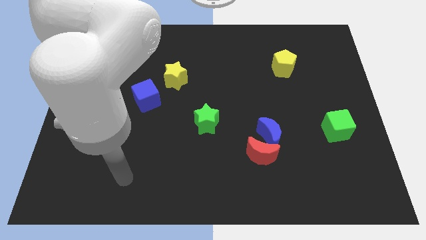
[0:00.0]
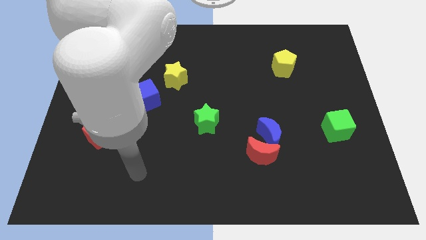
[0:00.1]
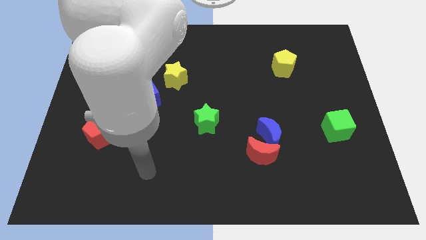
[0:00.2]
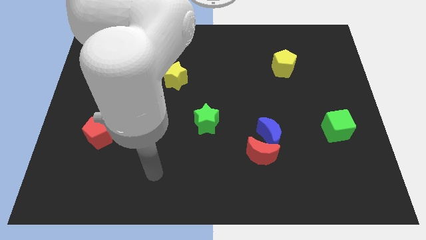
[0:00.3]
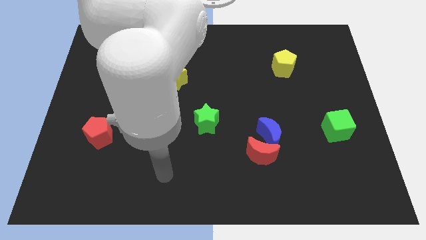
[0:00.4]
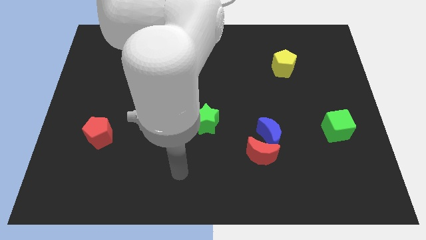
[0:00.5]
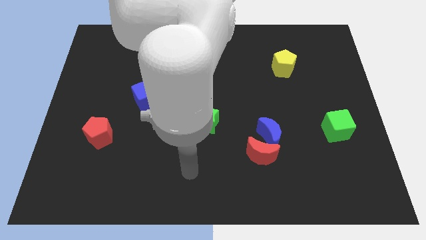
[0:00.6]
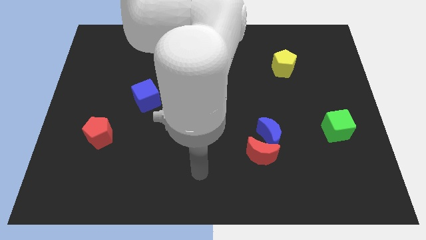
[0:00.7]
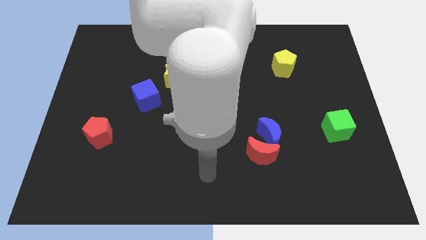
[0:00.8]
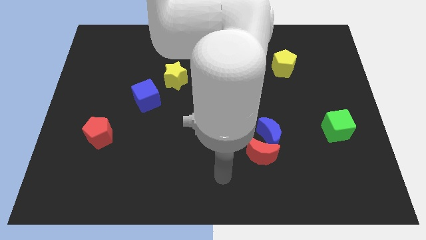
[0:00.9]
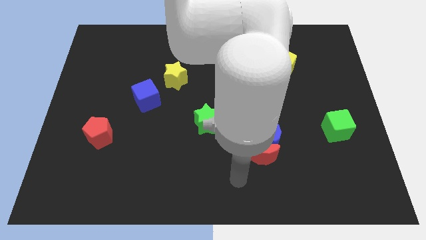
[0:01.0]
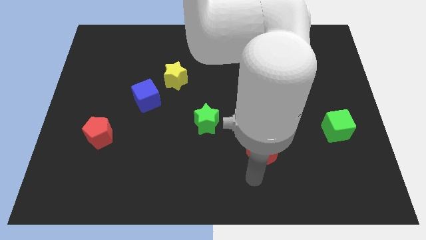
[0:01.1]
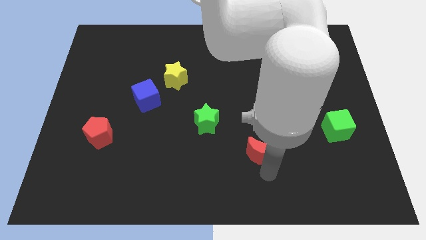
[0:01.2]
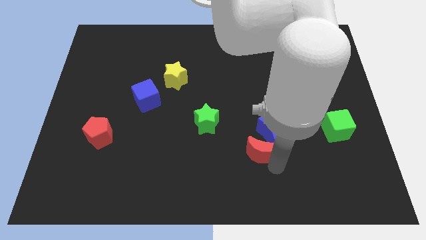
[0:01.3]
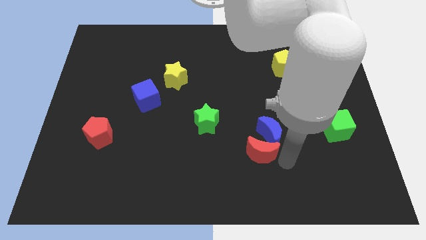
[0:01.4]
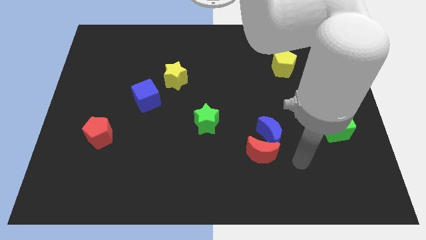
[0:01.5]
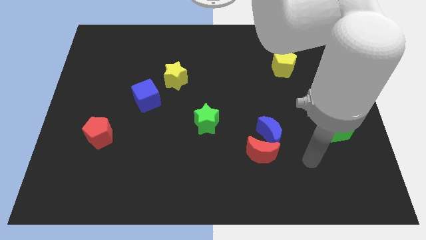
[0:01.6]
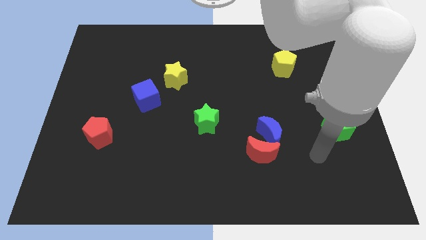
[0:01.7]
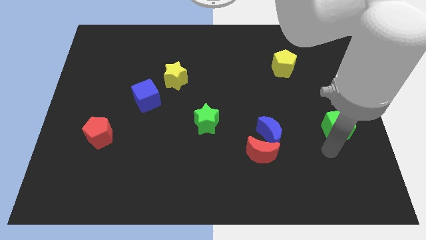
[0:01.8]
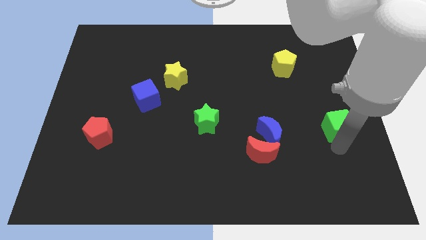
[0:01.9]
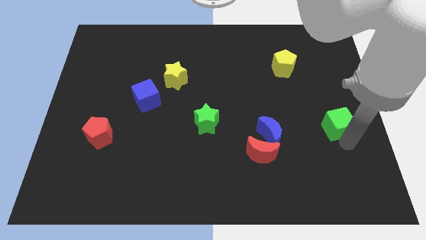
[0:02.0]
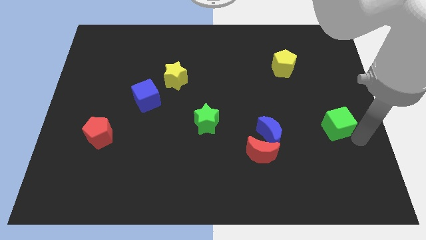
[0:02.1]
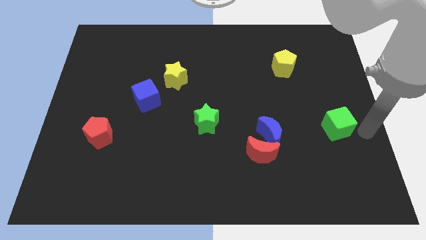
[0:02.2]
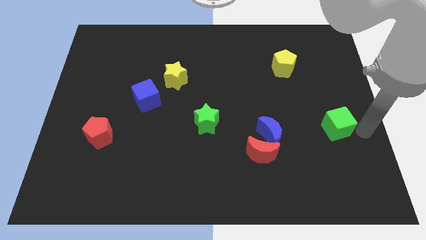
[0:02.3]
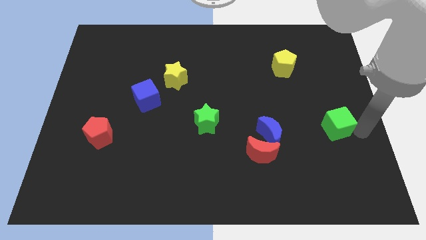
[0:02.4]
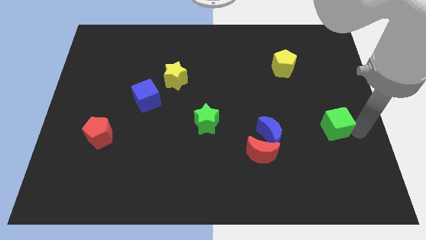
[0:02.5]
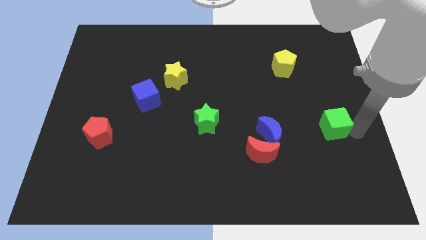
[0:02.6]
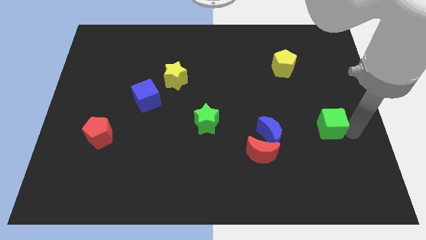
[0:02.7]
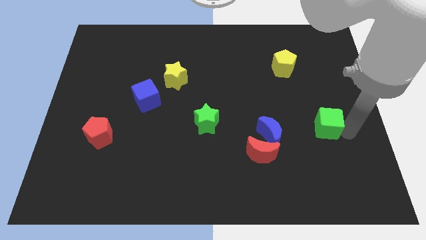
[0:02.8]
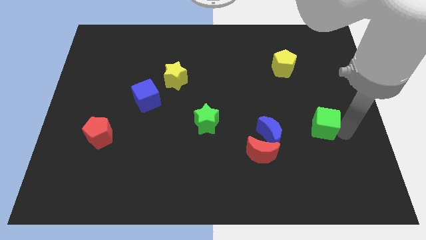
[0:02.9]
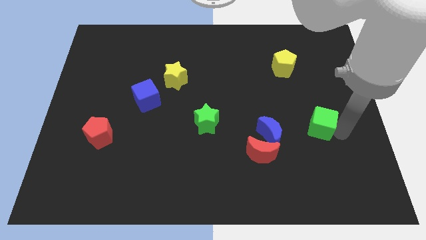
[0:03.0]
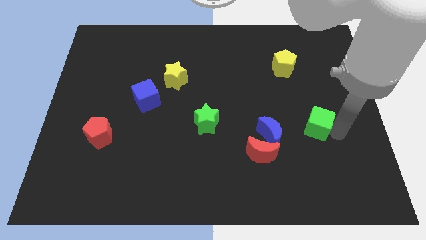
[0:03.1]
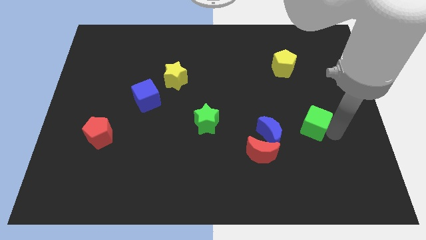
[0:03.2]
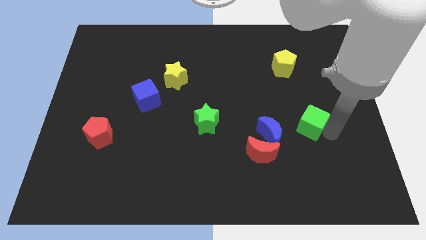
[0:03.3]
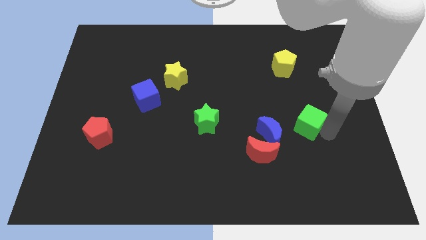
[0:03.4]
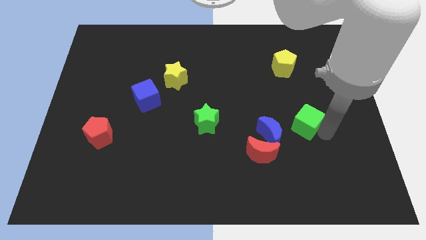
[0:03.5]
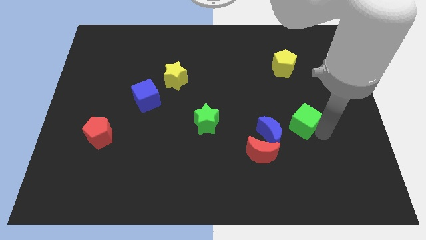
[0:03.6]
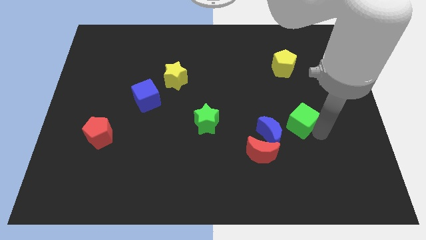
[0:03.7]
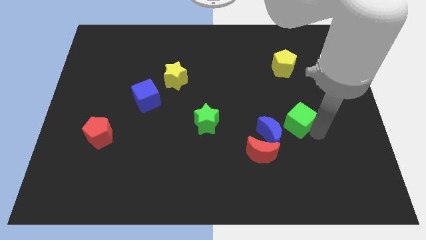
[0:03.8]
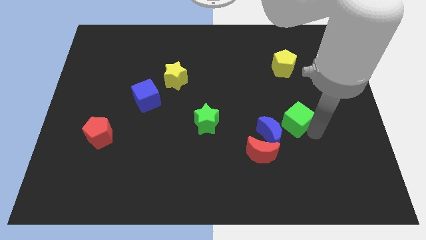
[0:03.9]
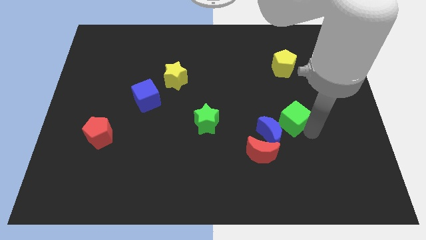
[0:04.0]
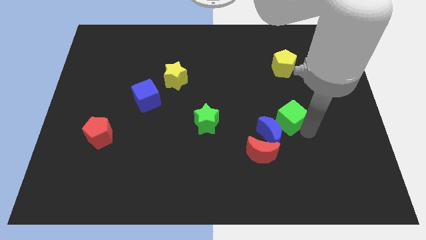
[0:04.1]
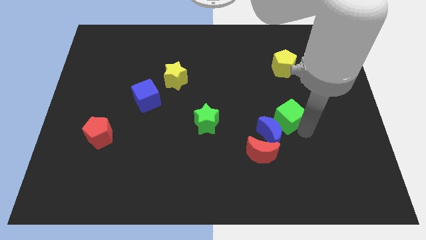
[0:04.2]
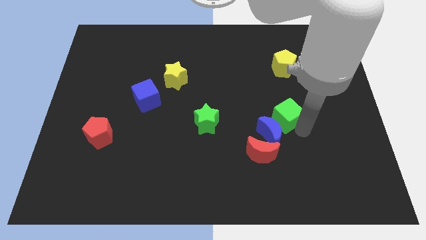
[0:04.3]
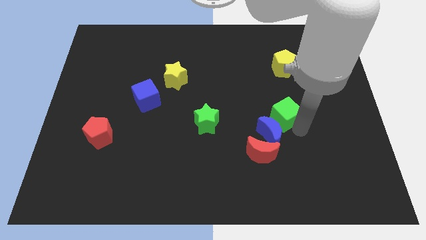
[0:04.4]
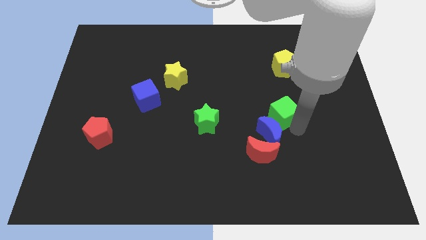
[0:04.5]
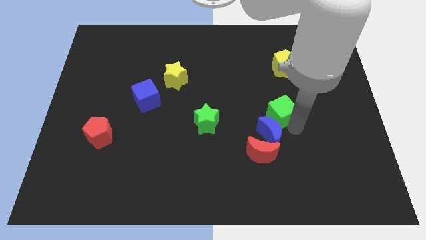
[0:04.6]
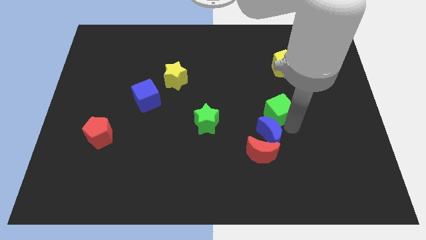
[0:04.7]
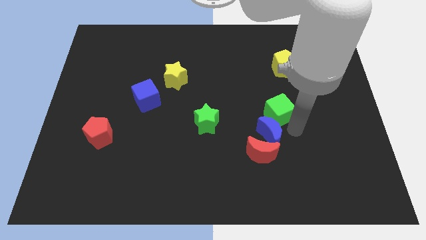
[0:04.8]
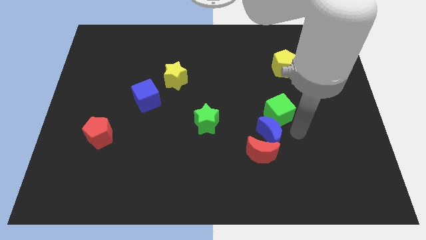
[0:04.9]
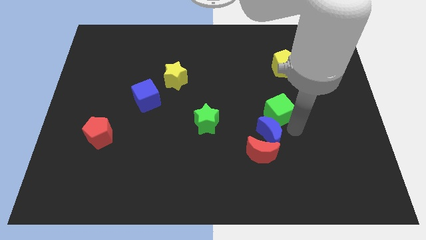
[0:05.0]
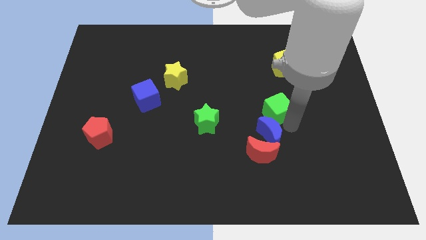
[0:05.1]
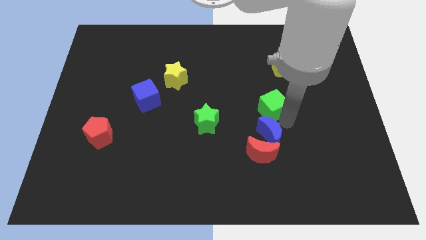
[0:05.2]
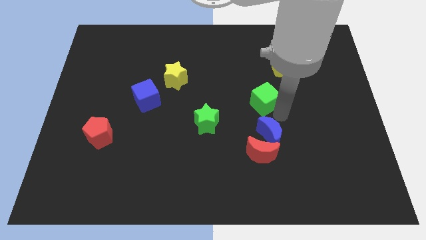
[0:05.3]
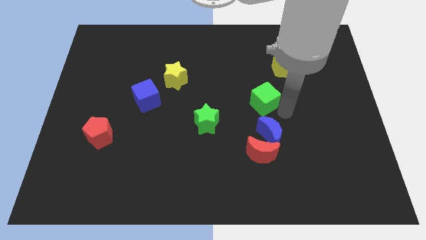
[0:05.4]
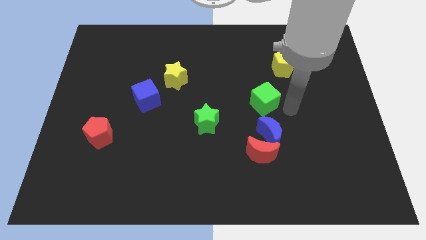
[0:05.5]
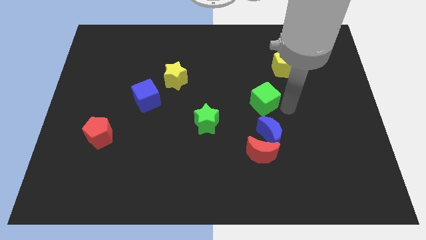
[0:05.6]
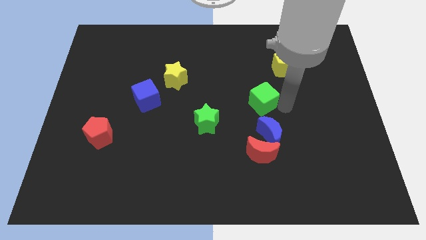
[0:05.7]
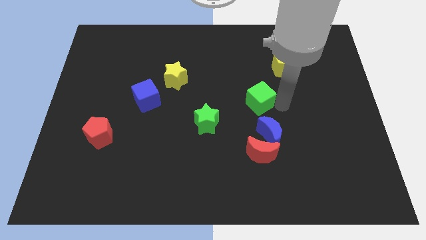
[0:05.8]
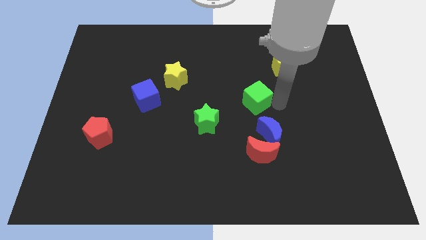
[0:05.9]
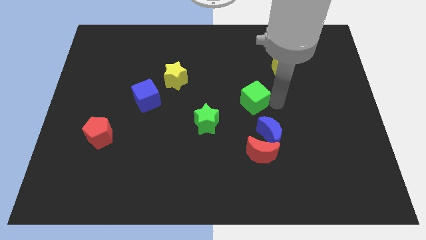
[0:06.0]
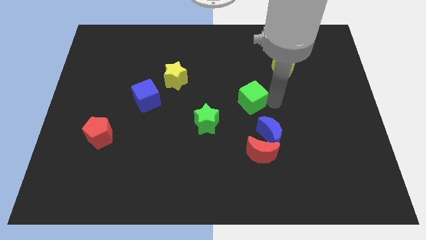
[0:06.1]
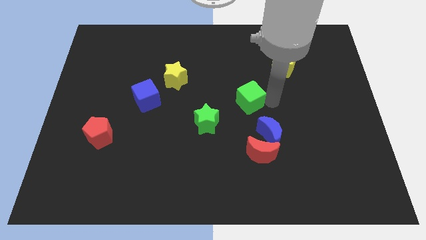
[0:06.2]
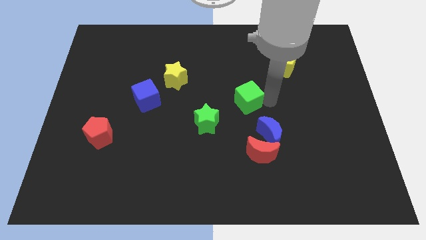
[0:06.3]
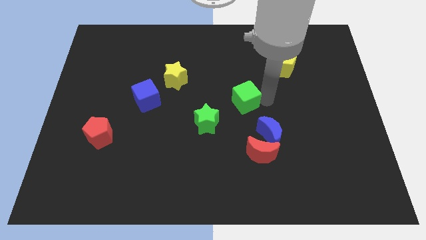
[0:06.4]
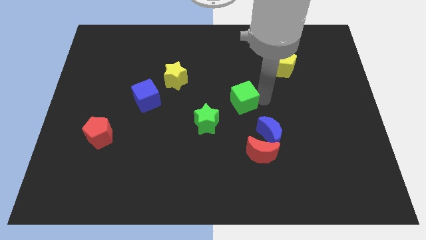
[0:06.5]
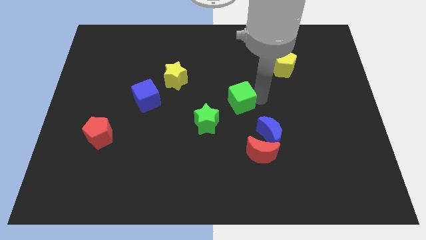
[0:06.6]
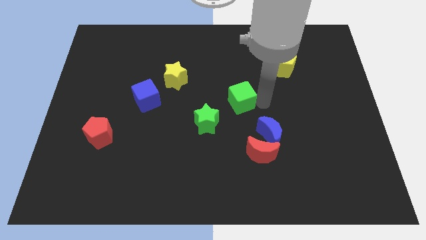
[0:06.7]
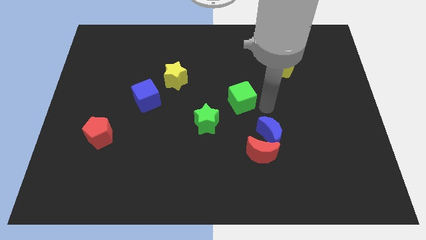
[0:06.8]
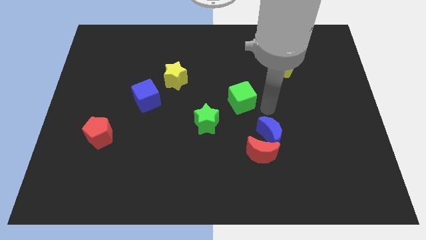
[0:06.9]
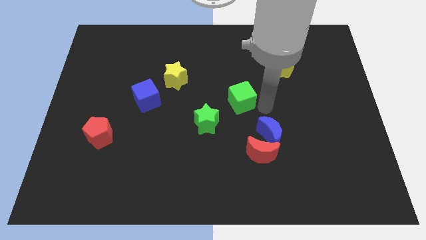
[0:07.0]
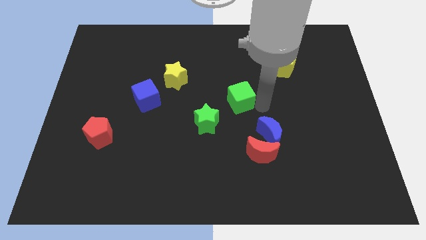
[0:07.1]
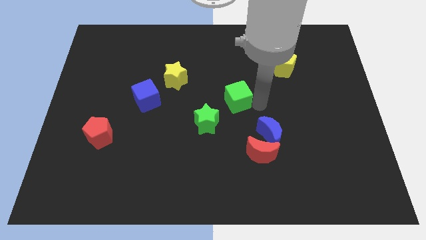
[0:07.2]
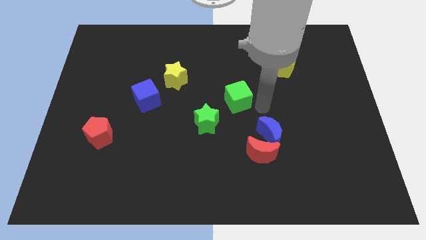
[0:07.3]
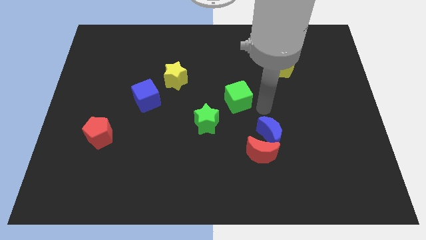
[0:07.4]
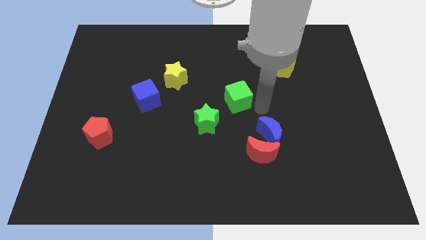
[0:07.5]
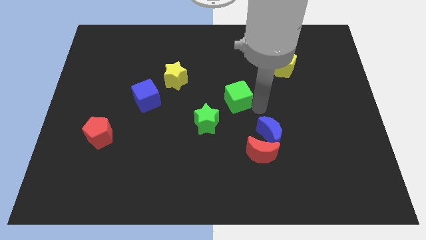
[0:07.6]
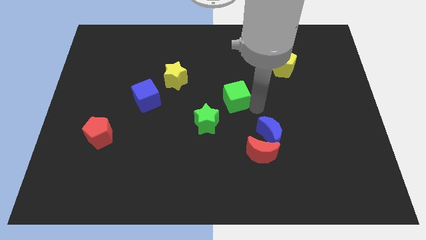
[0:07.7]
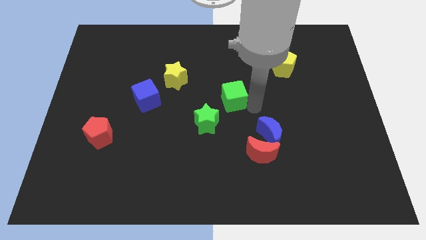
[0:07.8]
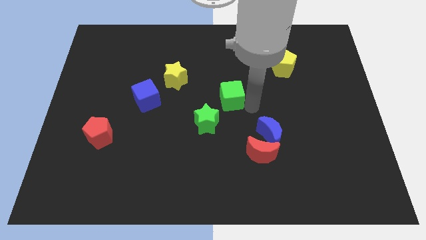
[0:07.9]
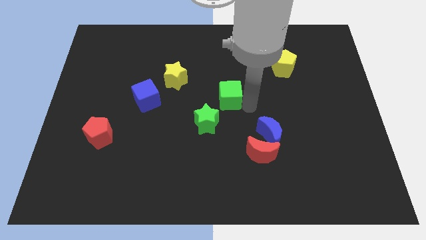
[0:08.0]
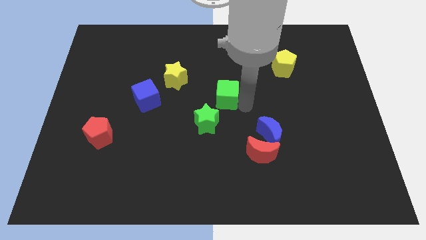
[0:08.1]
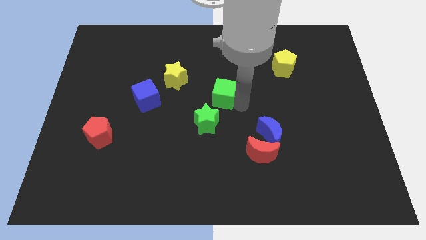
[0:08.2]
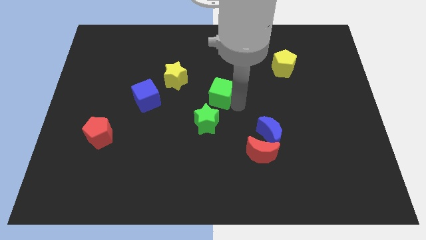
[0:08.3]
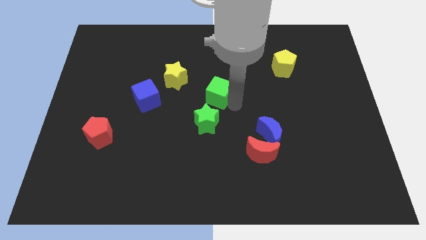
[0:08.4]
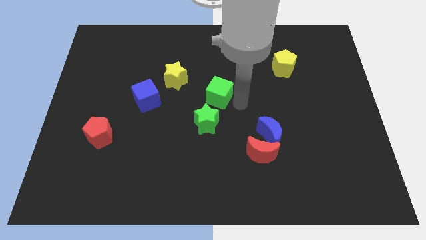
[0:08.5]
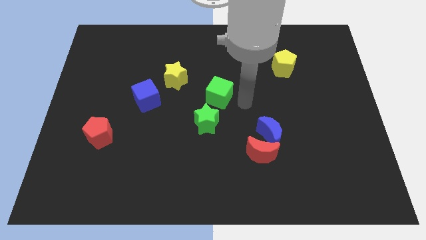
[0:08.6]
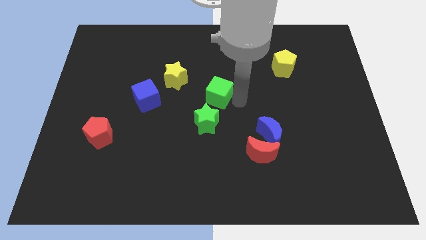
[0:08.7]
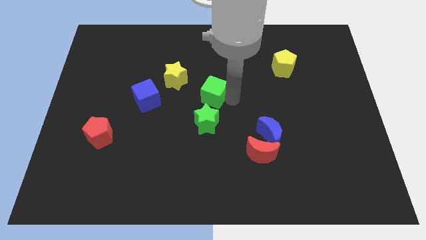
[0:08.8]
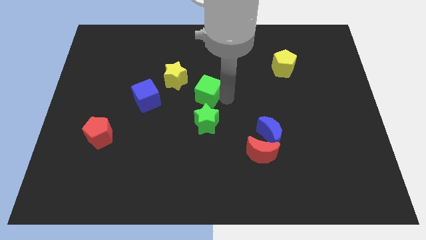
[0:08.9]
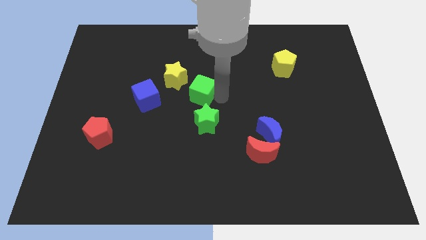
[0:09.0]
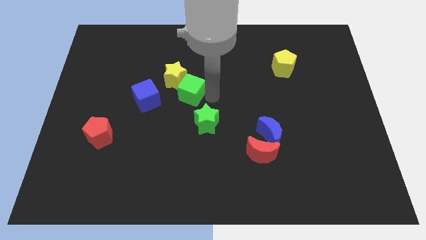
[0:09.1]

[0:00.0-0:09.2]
put the green cube next to the yellow star
